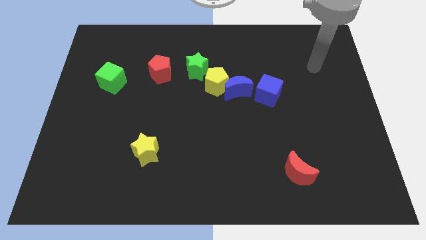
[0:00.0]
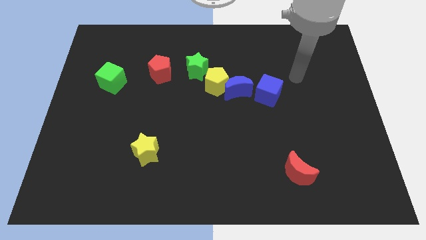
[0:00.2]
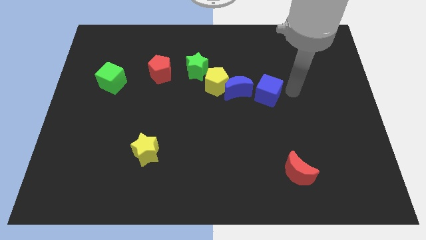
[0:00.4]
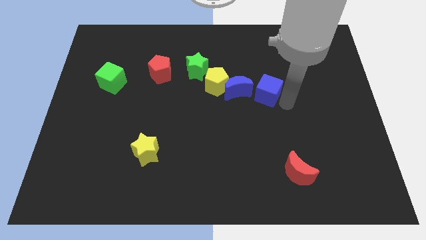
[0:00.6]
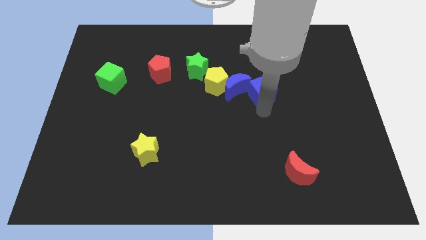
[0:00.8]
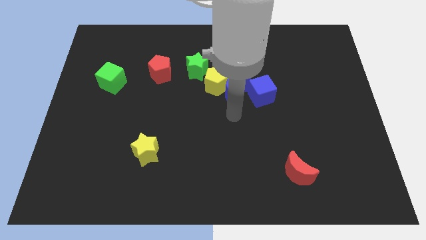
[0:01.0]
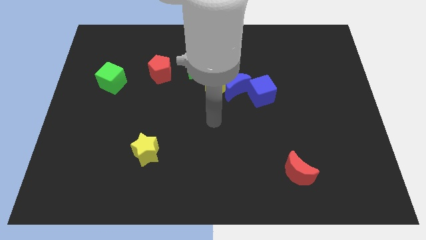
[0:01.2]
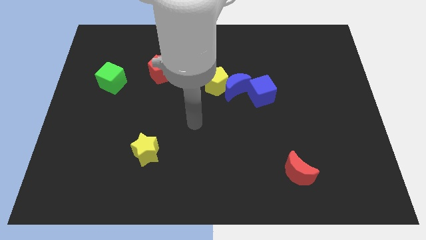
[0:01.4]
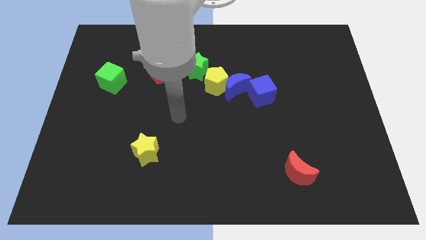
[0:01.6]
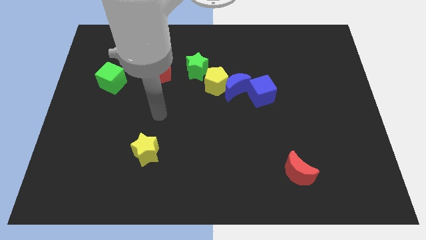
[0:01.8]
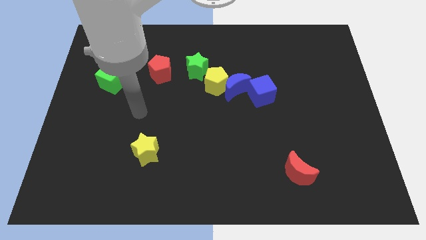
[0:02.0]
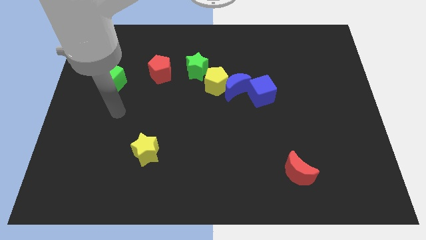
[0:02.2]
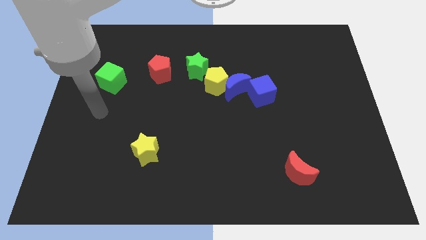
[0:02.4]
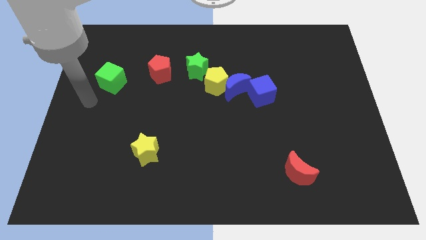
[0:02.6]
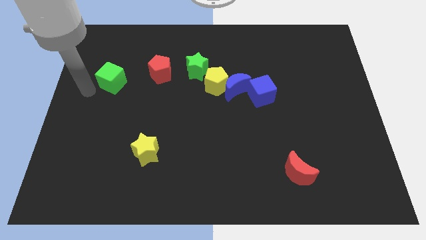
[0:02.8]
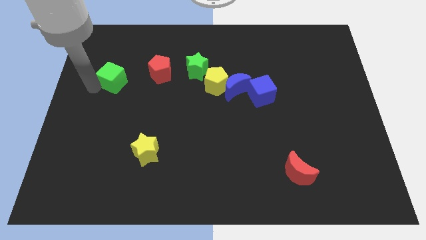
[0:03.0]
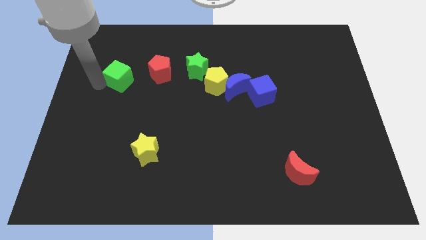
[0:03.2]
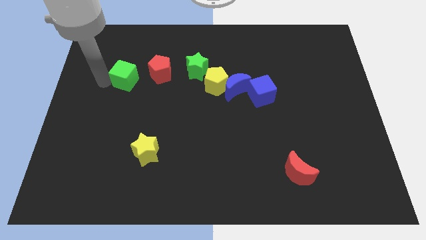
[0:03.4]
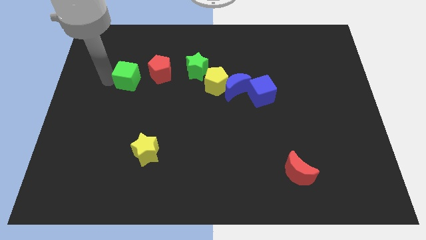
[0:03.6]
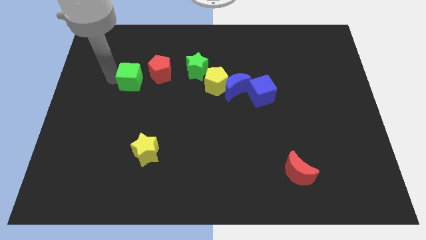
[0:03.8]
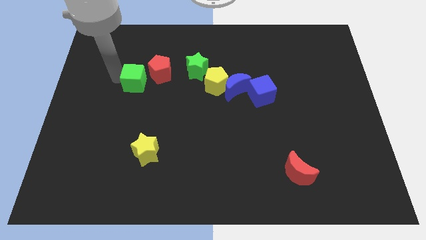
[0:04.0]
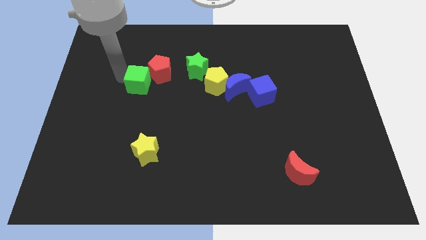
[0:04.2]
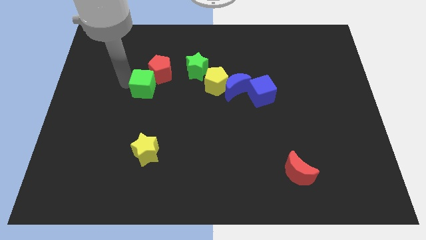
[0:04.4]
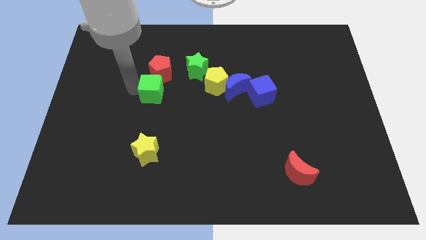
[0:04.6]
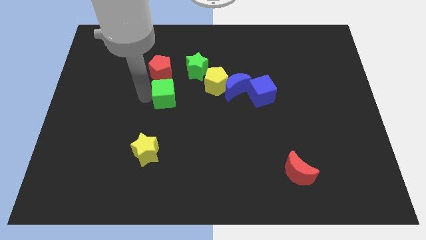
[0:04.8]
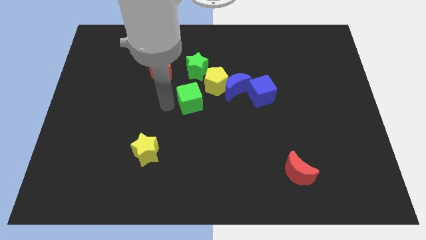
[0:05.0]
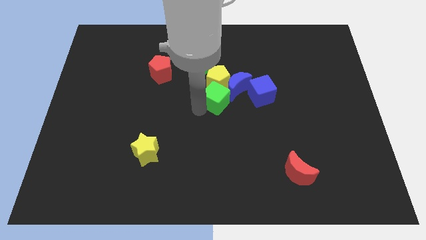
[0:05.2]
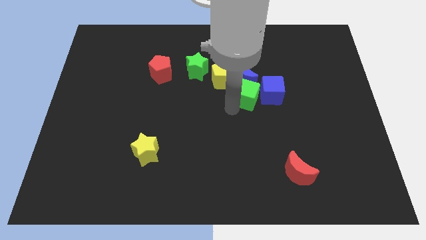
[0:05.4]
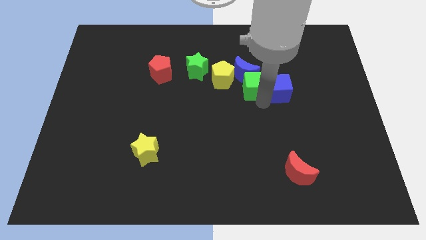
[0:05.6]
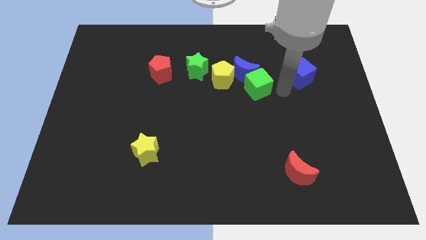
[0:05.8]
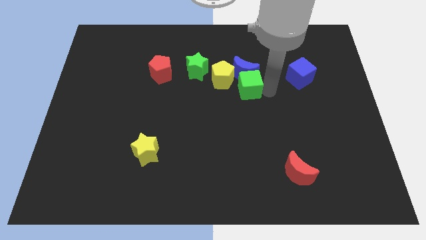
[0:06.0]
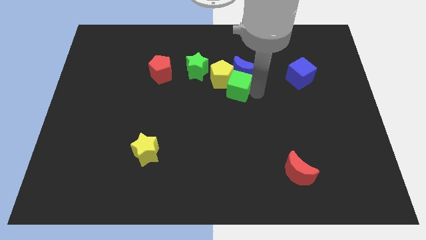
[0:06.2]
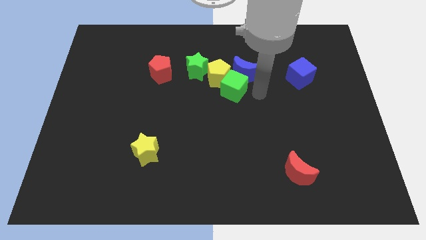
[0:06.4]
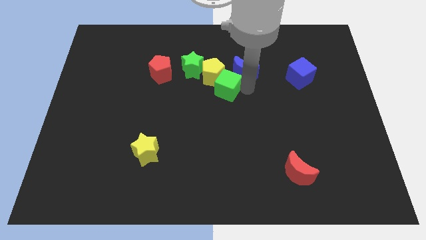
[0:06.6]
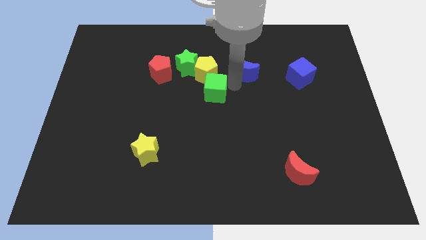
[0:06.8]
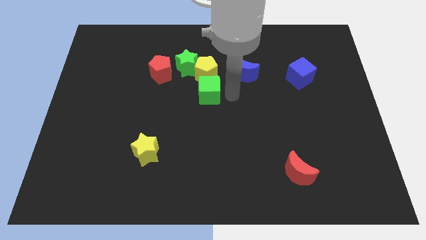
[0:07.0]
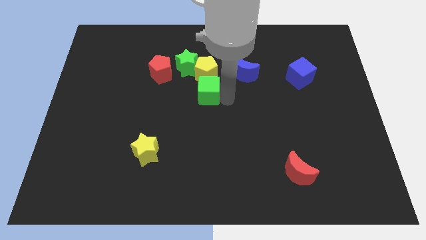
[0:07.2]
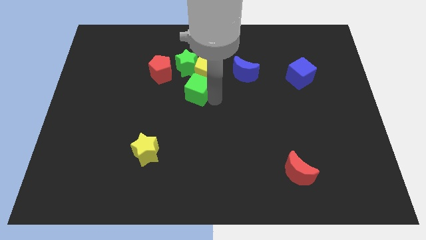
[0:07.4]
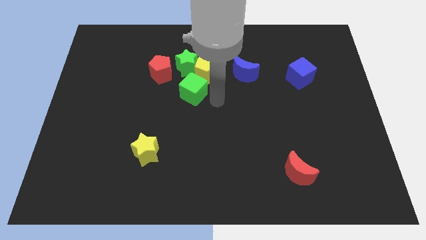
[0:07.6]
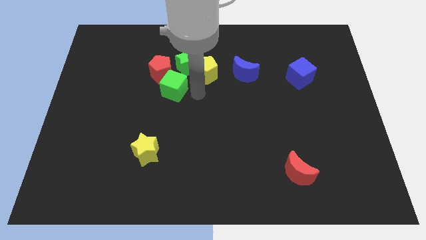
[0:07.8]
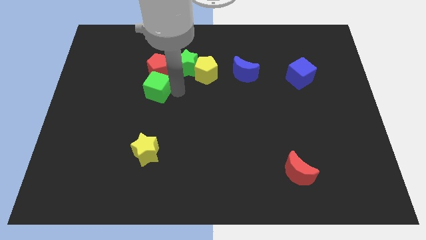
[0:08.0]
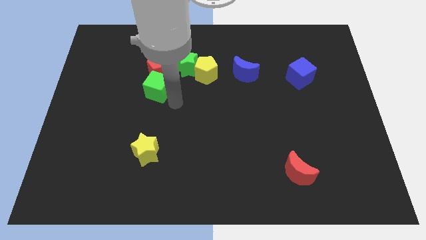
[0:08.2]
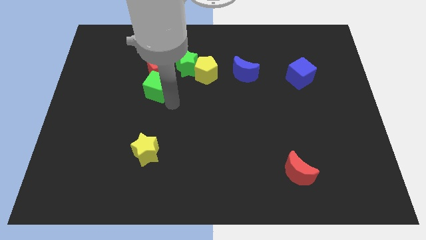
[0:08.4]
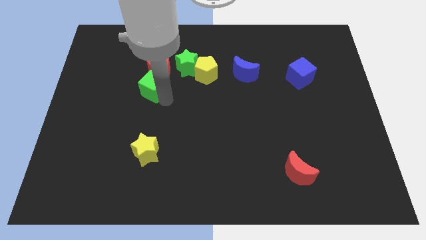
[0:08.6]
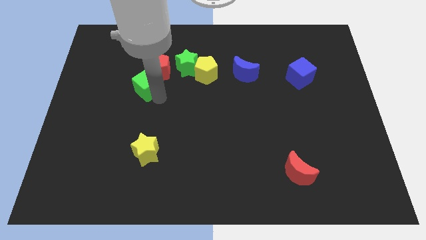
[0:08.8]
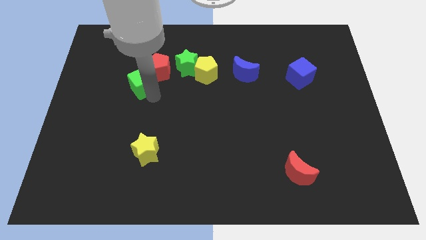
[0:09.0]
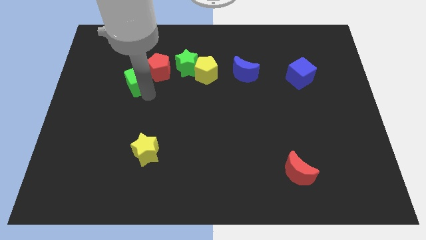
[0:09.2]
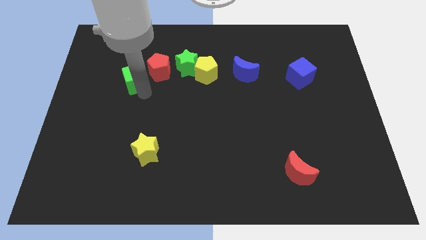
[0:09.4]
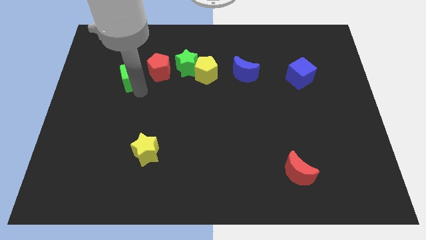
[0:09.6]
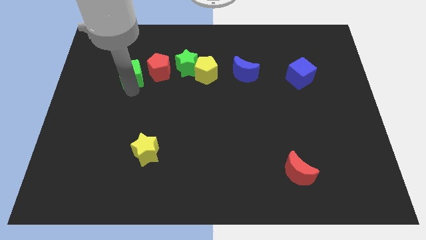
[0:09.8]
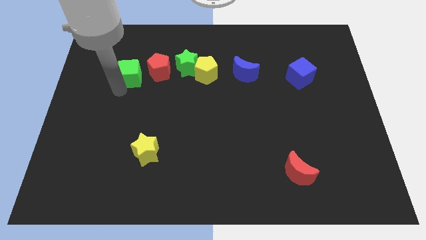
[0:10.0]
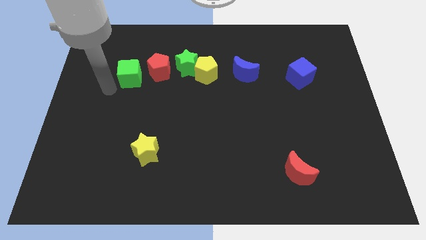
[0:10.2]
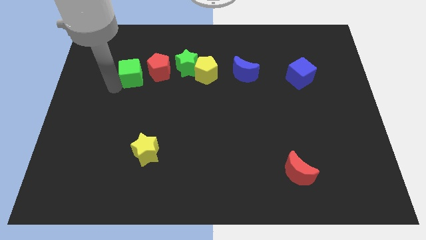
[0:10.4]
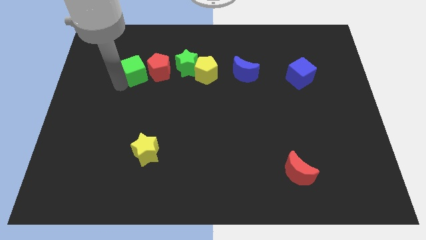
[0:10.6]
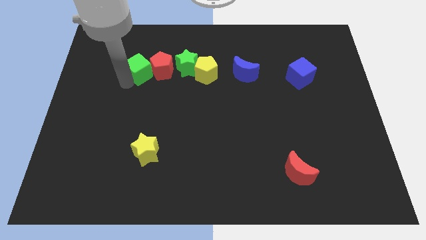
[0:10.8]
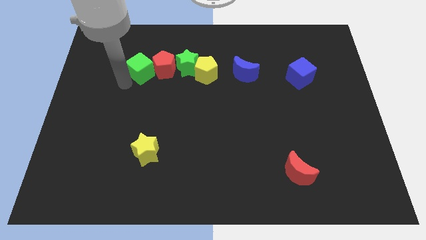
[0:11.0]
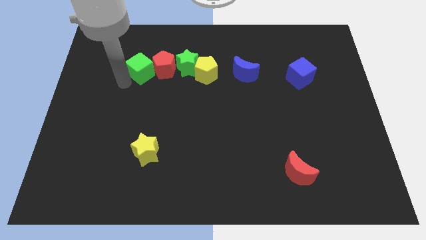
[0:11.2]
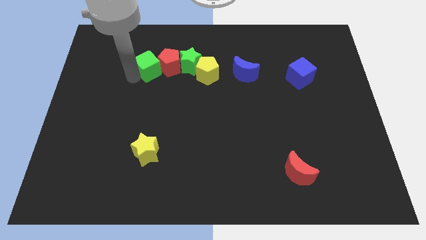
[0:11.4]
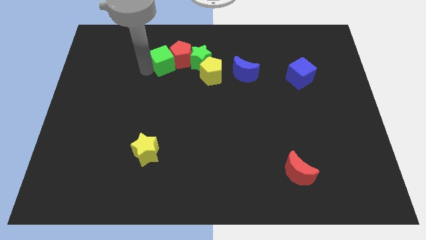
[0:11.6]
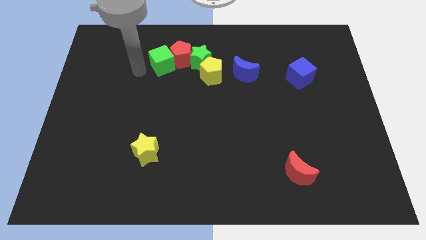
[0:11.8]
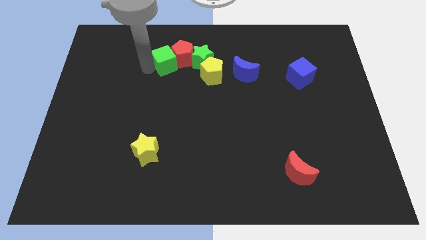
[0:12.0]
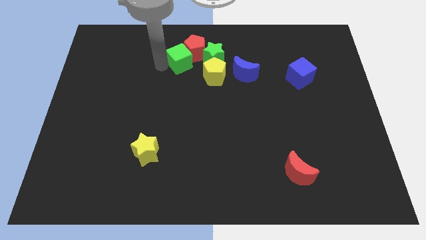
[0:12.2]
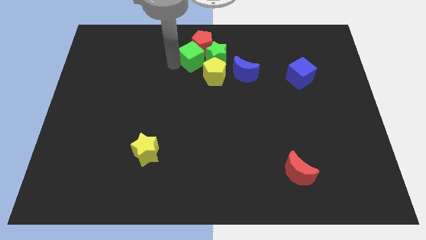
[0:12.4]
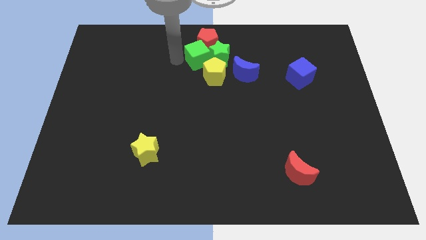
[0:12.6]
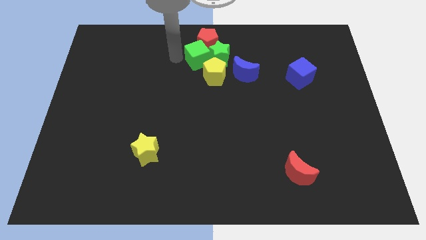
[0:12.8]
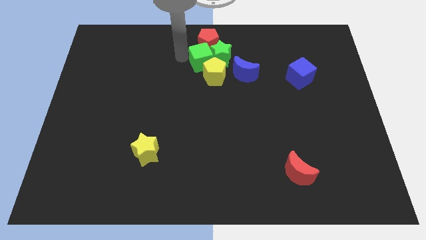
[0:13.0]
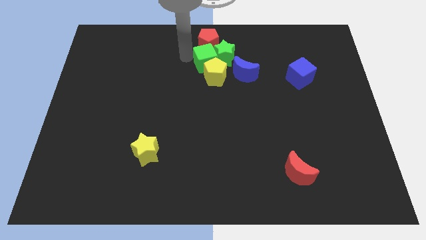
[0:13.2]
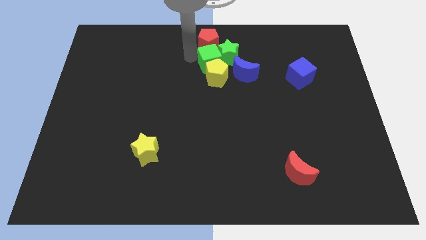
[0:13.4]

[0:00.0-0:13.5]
slide the green cube diagonally up and to the right of the yellow pentagon
